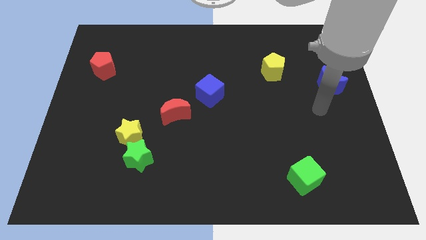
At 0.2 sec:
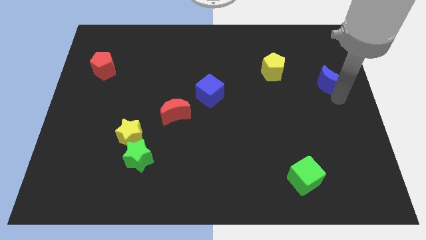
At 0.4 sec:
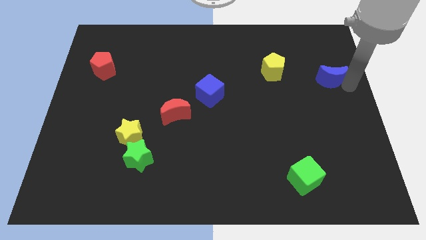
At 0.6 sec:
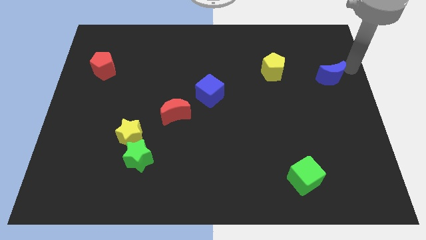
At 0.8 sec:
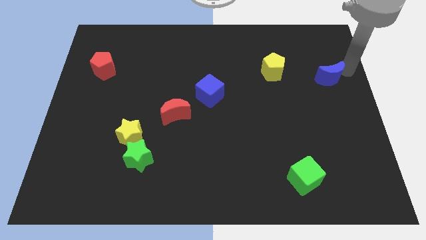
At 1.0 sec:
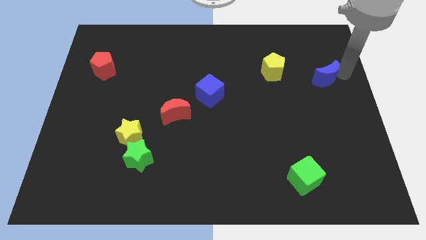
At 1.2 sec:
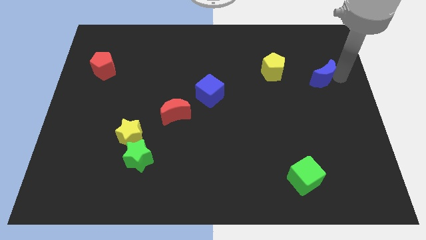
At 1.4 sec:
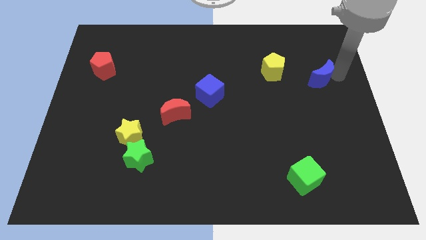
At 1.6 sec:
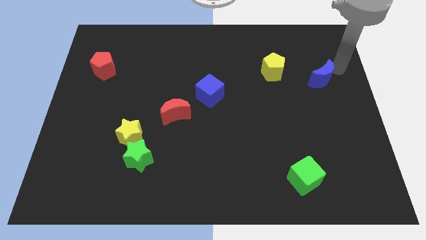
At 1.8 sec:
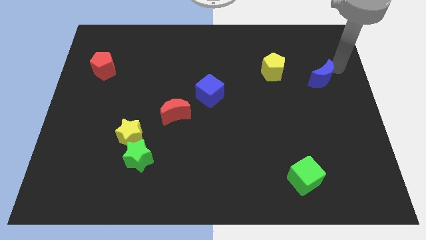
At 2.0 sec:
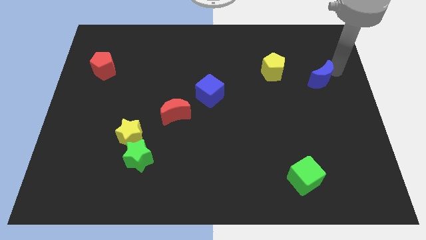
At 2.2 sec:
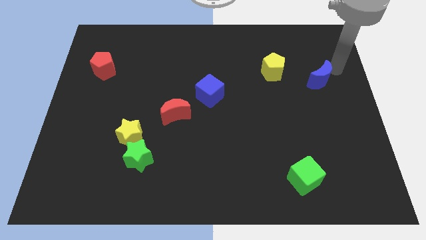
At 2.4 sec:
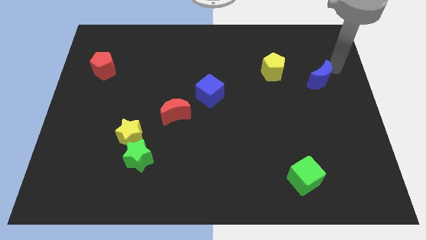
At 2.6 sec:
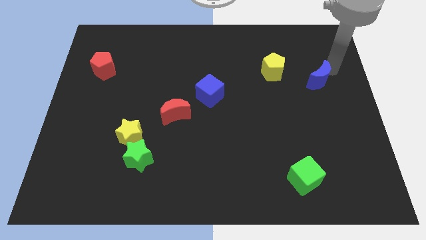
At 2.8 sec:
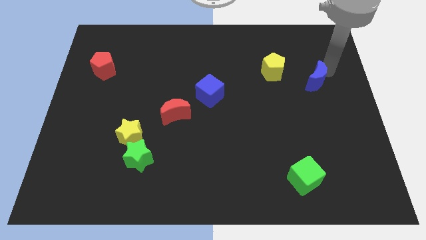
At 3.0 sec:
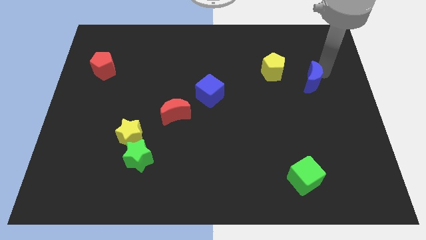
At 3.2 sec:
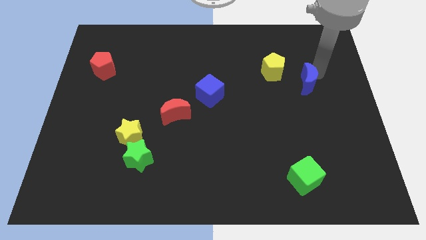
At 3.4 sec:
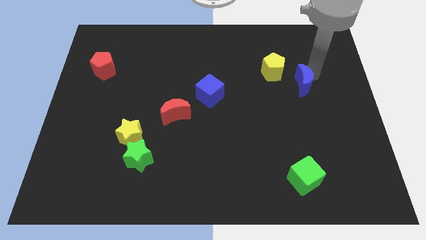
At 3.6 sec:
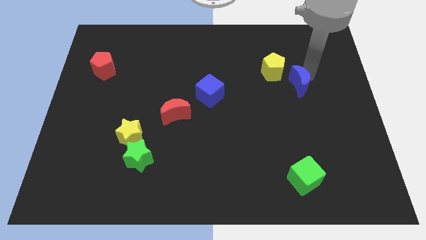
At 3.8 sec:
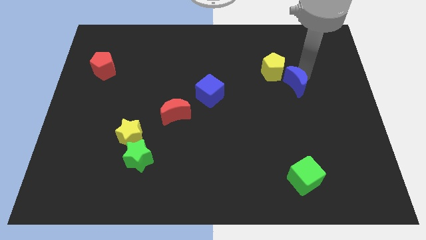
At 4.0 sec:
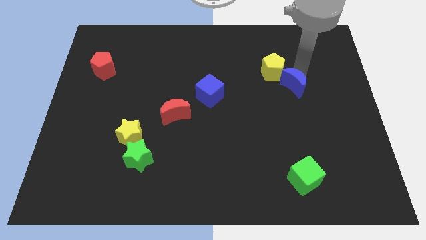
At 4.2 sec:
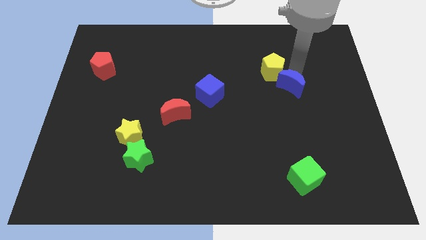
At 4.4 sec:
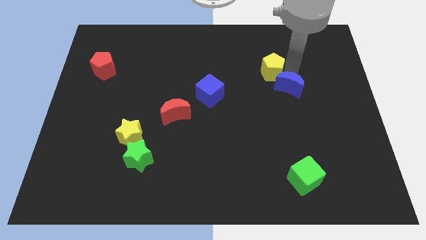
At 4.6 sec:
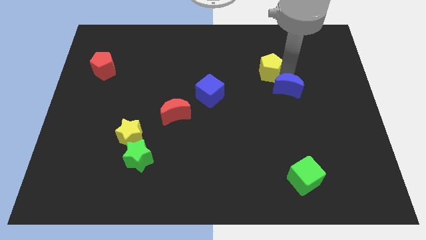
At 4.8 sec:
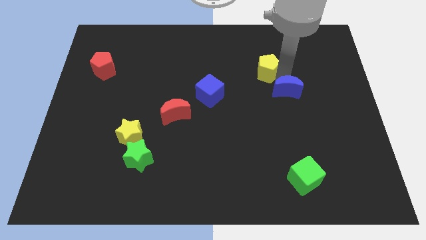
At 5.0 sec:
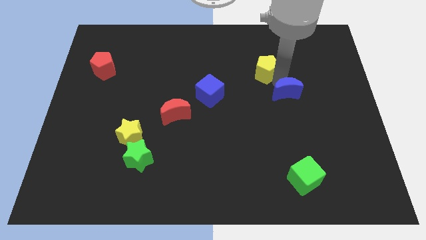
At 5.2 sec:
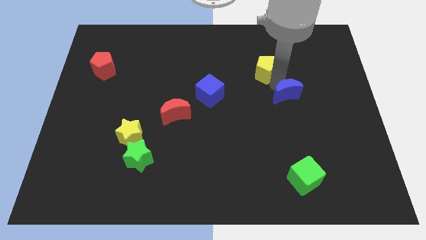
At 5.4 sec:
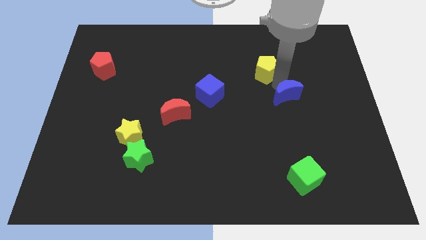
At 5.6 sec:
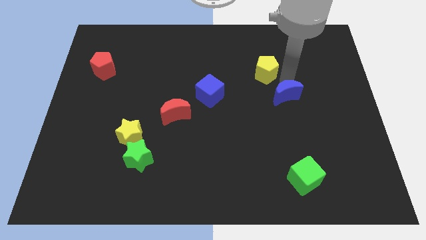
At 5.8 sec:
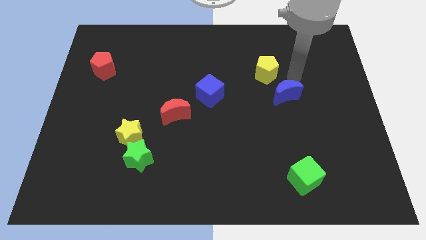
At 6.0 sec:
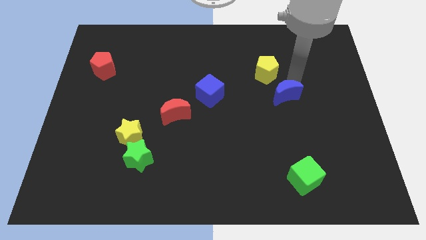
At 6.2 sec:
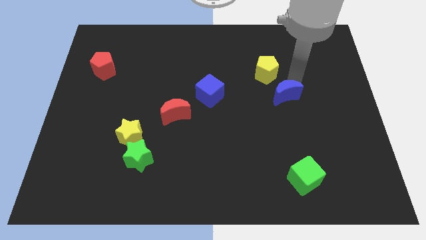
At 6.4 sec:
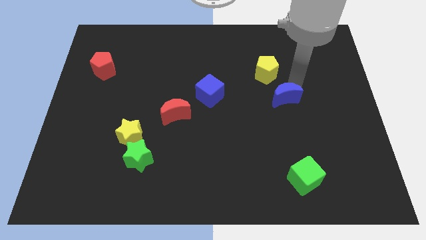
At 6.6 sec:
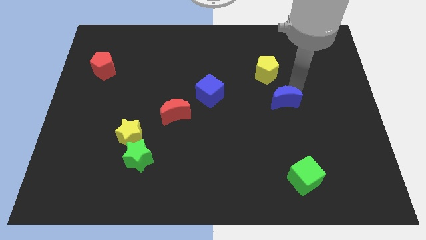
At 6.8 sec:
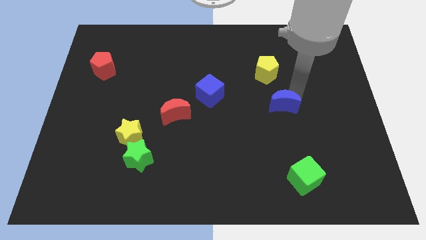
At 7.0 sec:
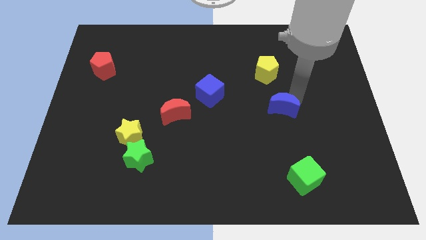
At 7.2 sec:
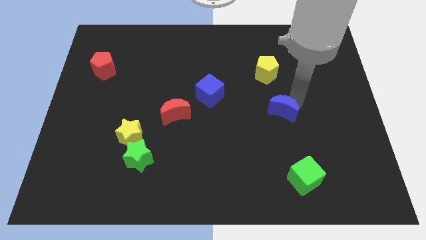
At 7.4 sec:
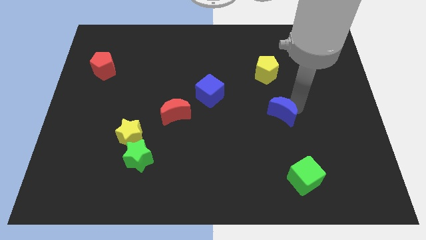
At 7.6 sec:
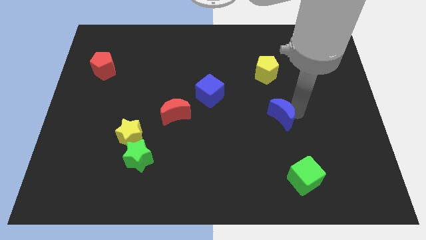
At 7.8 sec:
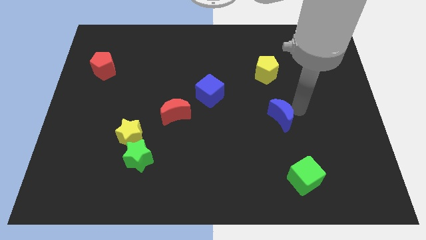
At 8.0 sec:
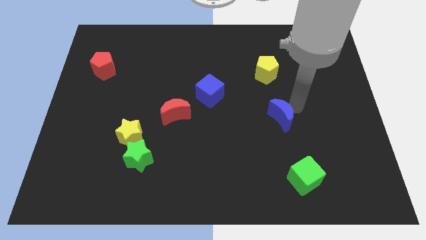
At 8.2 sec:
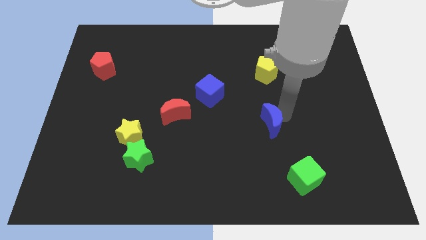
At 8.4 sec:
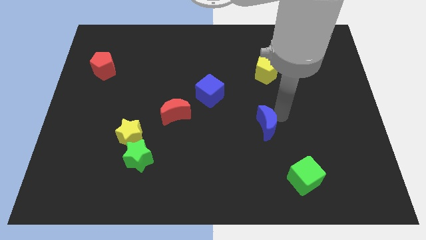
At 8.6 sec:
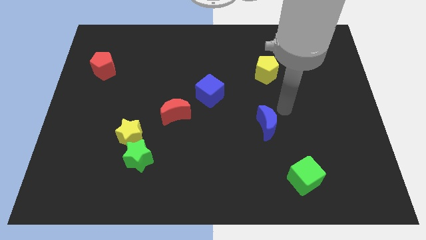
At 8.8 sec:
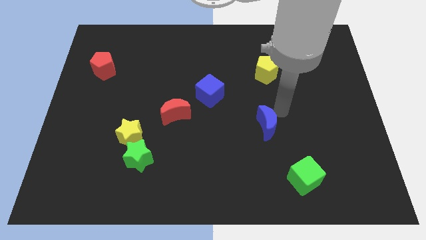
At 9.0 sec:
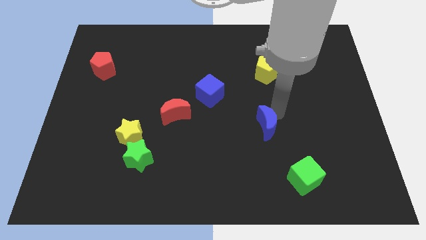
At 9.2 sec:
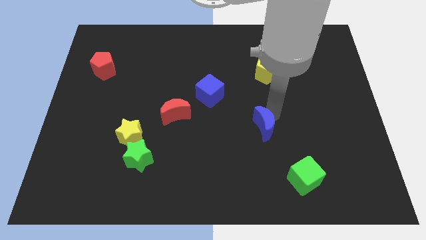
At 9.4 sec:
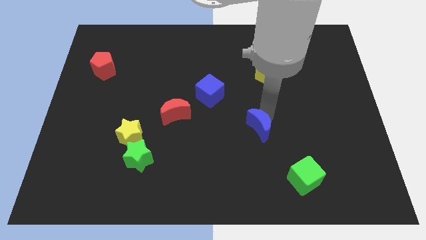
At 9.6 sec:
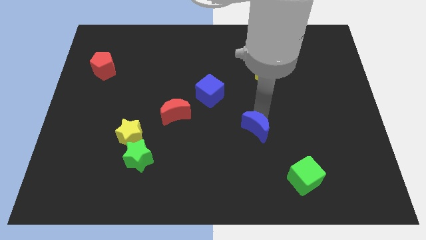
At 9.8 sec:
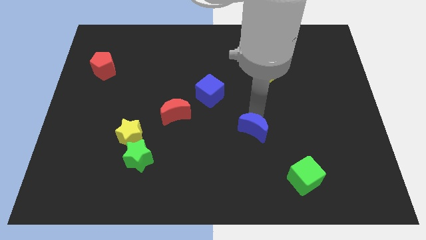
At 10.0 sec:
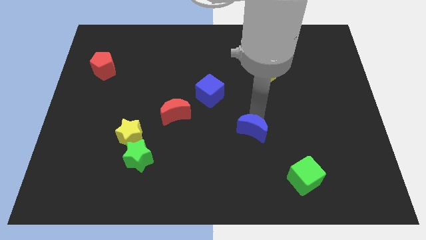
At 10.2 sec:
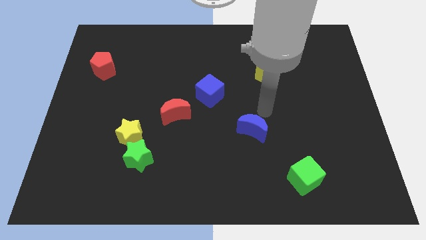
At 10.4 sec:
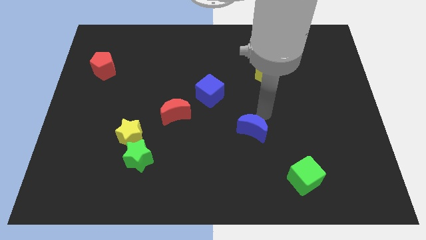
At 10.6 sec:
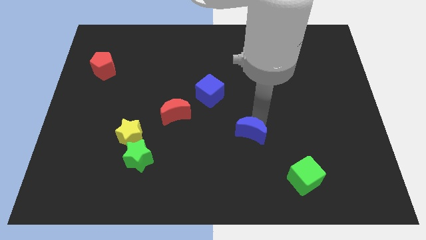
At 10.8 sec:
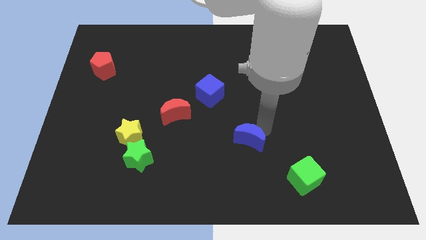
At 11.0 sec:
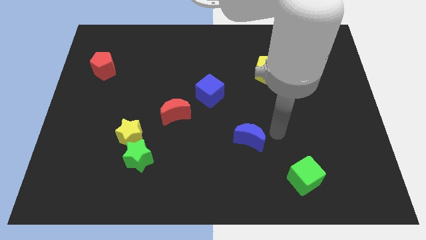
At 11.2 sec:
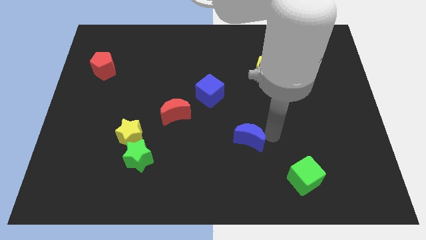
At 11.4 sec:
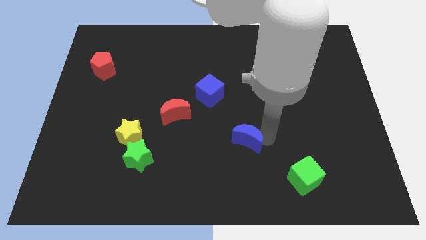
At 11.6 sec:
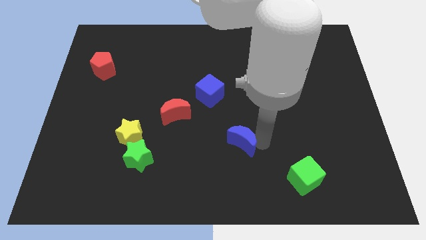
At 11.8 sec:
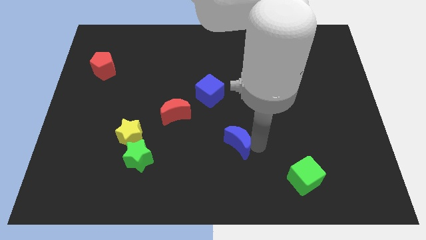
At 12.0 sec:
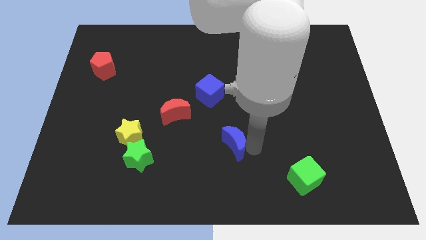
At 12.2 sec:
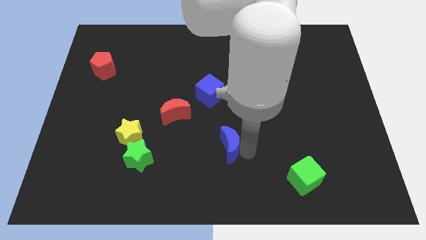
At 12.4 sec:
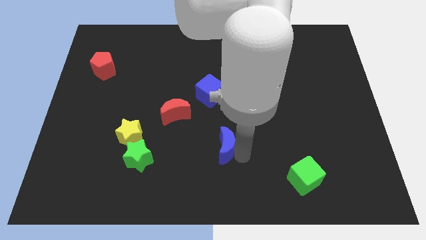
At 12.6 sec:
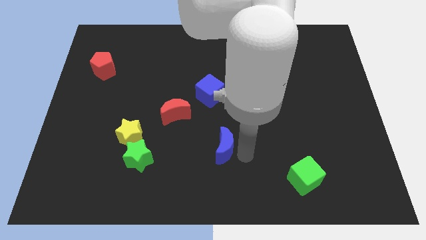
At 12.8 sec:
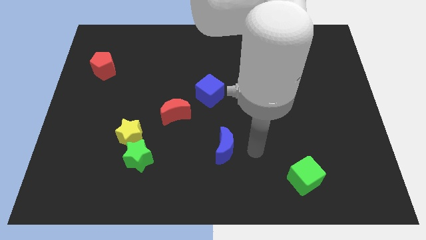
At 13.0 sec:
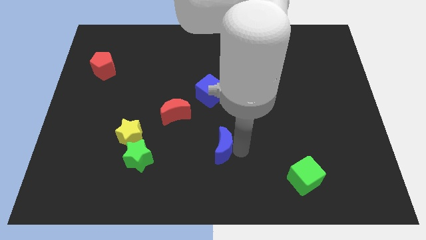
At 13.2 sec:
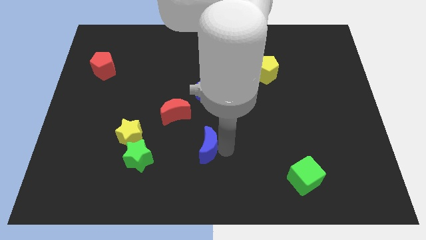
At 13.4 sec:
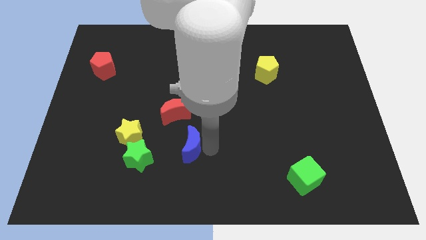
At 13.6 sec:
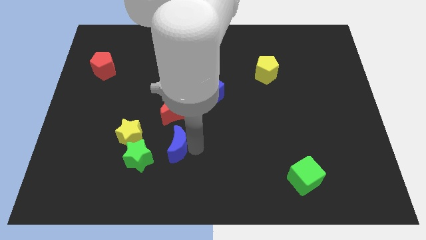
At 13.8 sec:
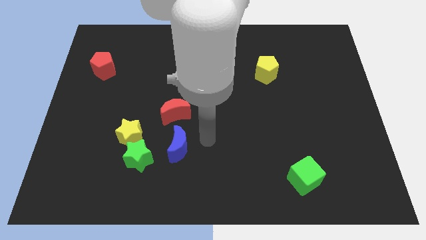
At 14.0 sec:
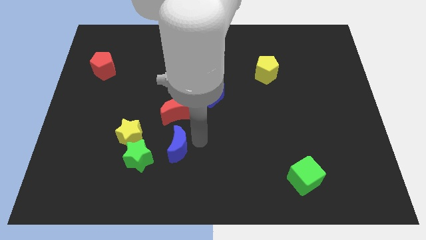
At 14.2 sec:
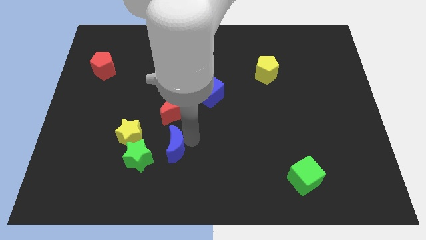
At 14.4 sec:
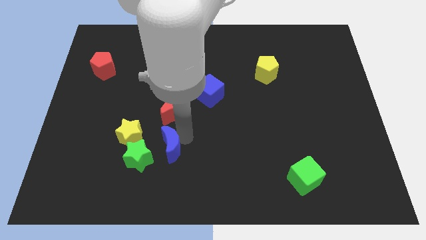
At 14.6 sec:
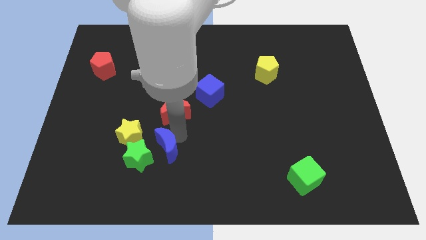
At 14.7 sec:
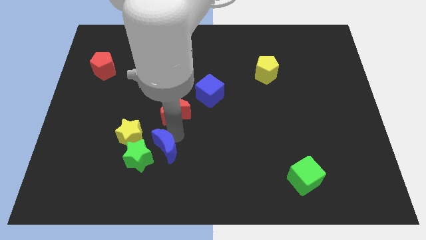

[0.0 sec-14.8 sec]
put the blue moon next to the green star
